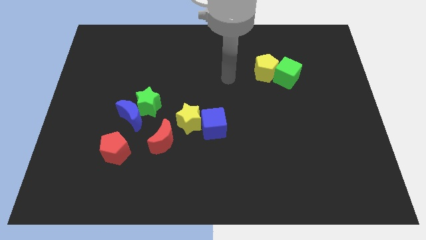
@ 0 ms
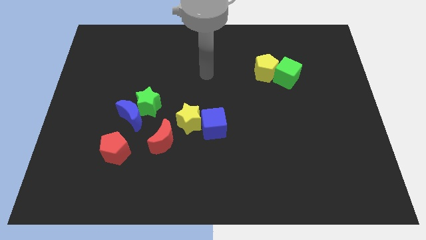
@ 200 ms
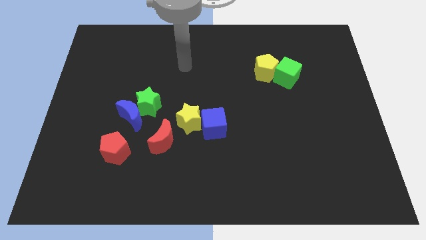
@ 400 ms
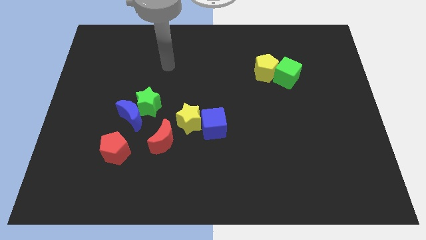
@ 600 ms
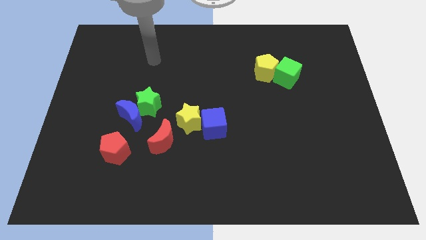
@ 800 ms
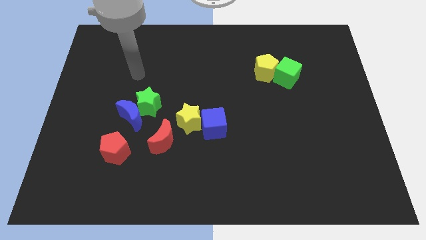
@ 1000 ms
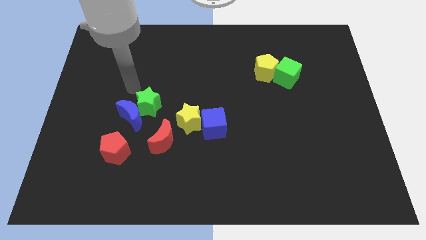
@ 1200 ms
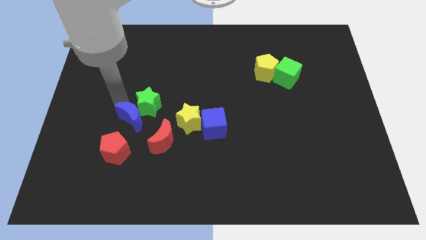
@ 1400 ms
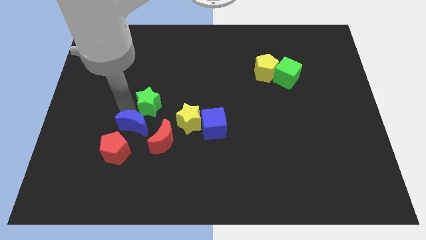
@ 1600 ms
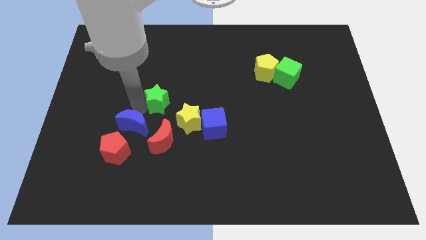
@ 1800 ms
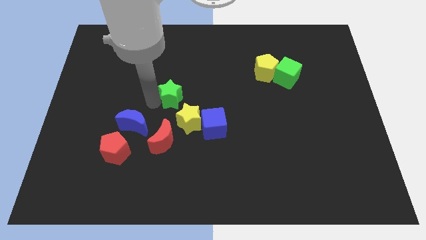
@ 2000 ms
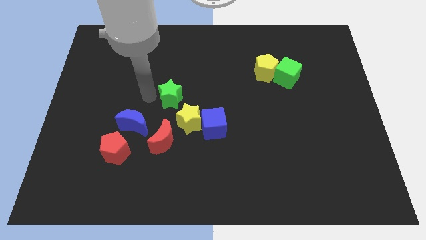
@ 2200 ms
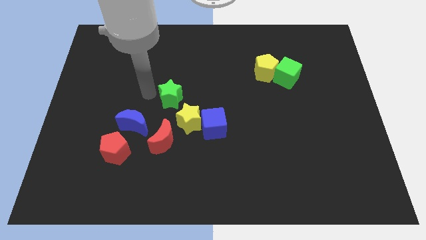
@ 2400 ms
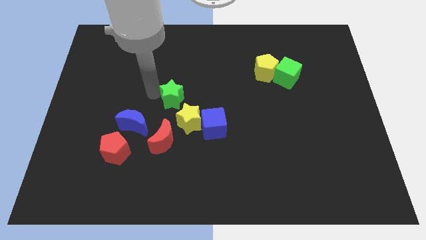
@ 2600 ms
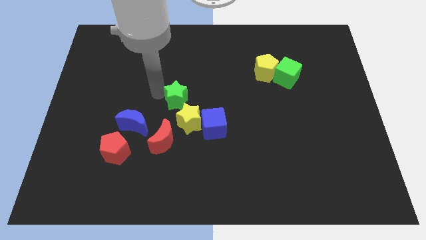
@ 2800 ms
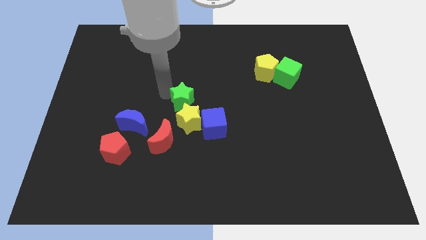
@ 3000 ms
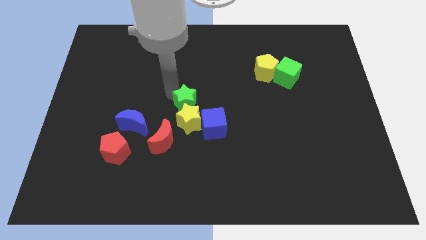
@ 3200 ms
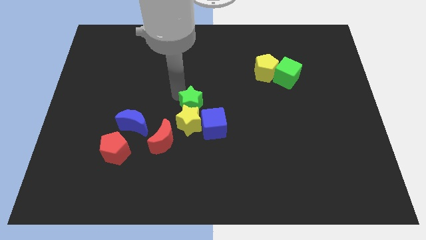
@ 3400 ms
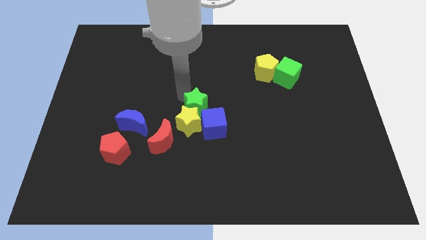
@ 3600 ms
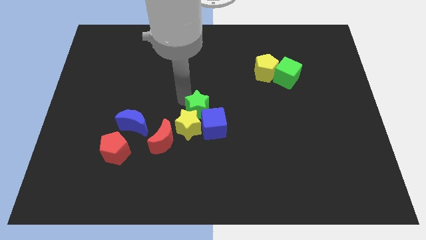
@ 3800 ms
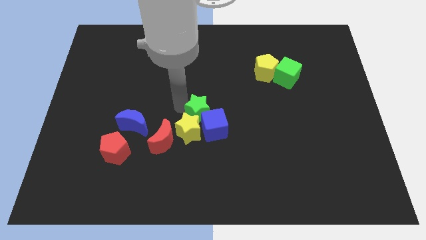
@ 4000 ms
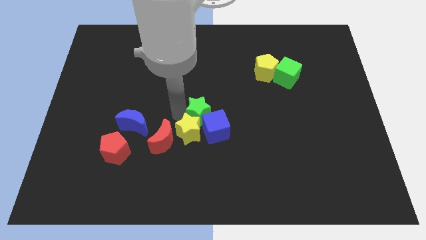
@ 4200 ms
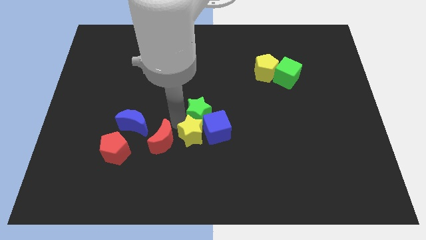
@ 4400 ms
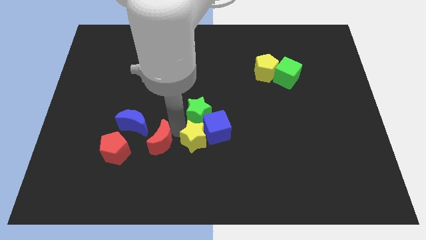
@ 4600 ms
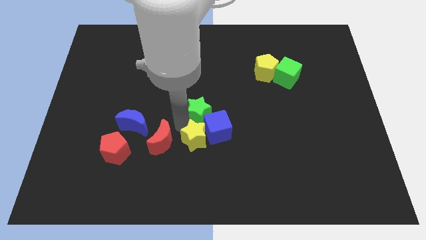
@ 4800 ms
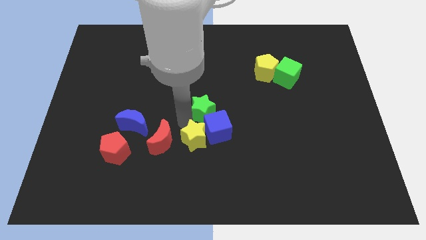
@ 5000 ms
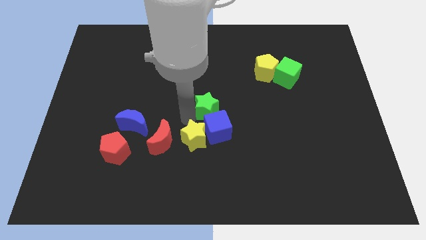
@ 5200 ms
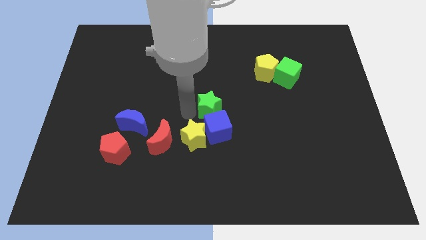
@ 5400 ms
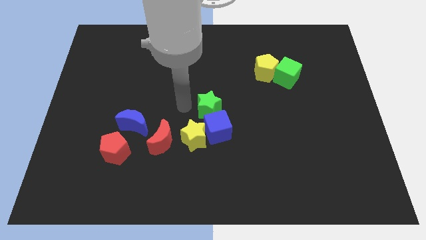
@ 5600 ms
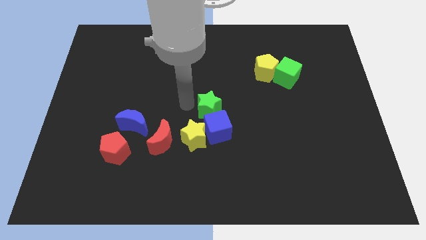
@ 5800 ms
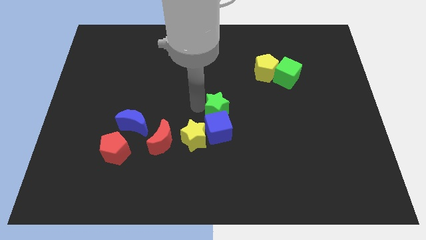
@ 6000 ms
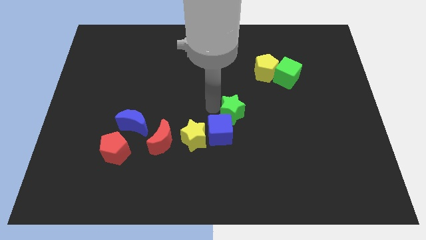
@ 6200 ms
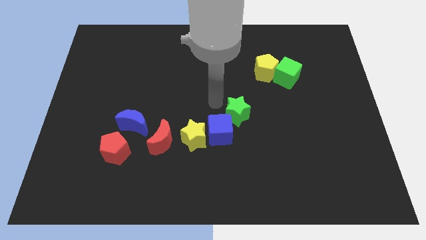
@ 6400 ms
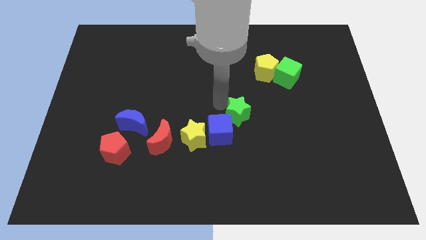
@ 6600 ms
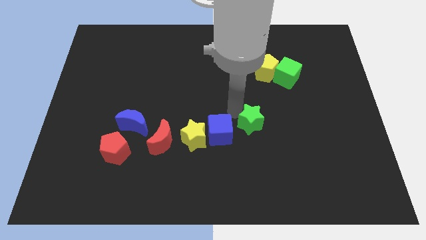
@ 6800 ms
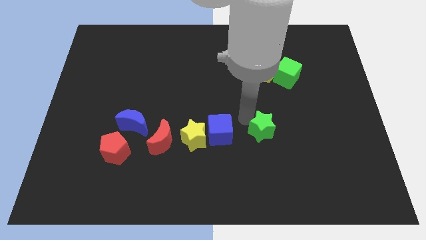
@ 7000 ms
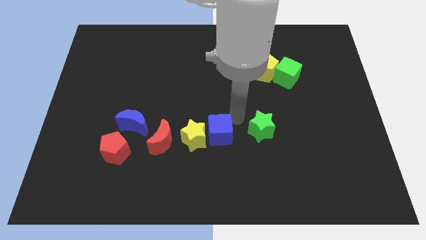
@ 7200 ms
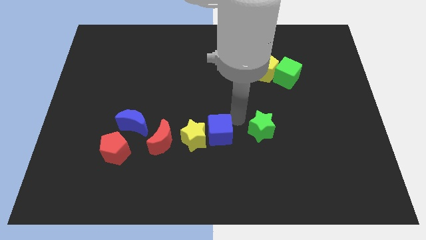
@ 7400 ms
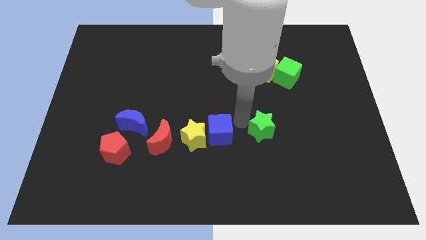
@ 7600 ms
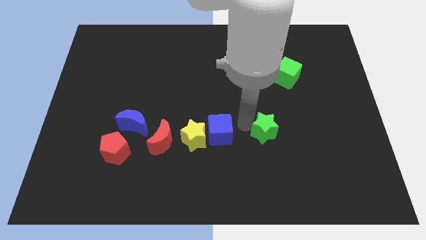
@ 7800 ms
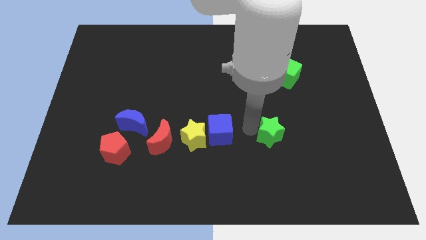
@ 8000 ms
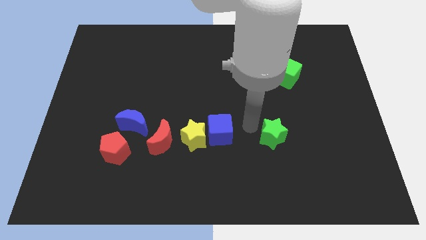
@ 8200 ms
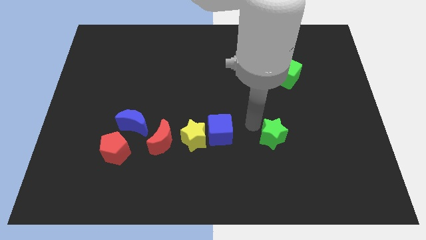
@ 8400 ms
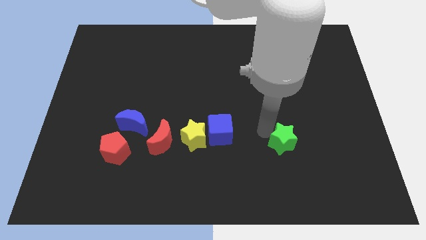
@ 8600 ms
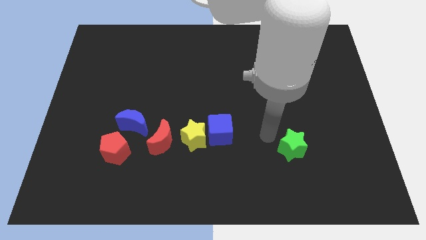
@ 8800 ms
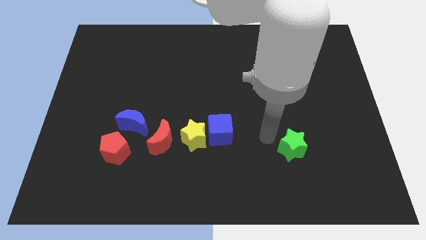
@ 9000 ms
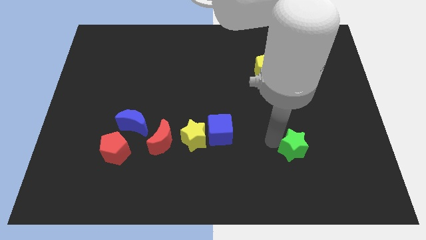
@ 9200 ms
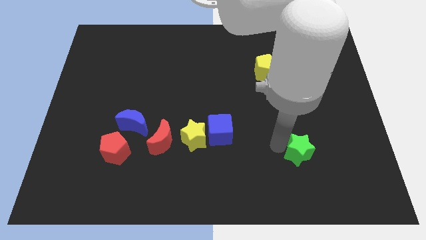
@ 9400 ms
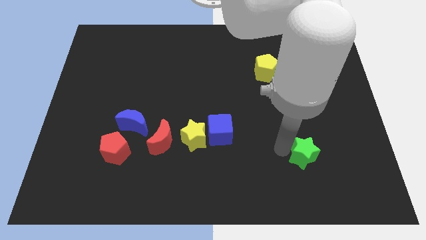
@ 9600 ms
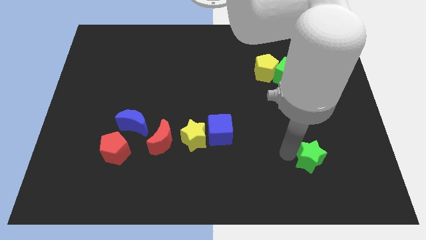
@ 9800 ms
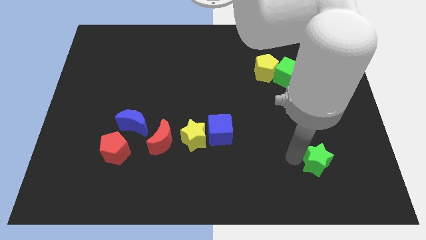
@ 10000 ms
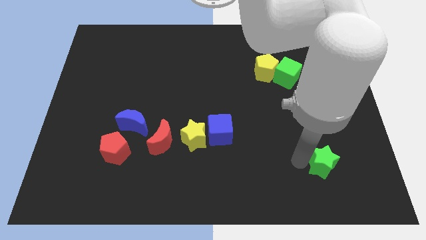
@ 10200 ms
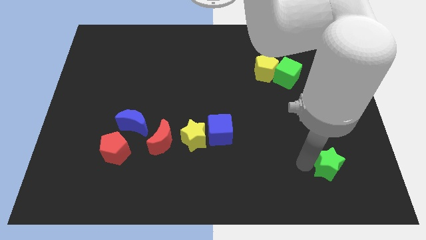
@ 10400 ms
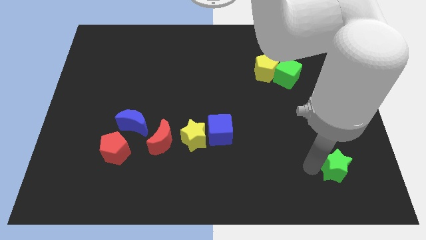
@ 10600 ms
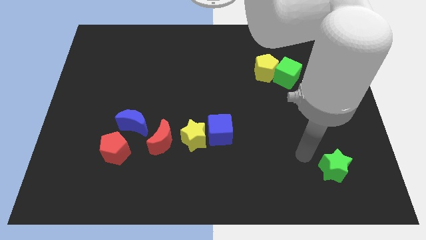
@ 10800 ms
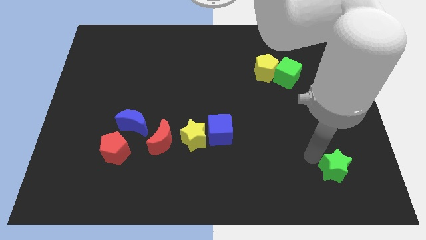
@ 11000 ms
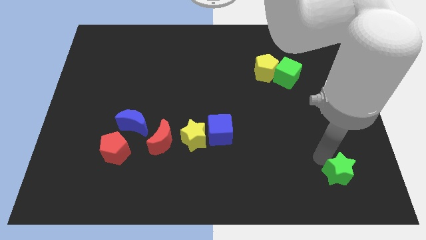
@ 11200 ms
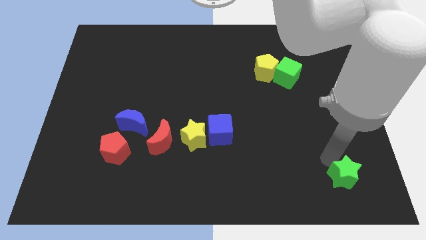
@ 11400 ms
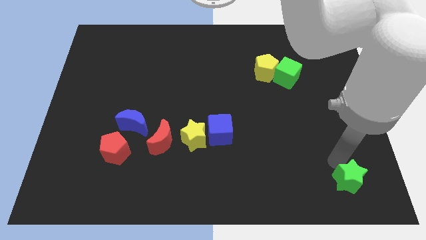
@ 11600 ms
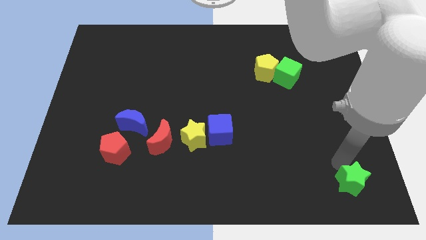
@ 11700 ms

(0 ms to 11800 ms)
slide the green star to the bottom right
